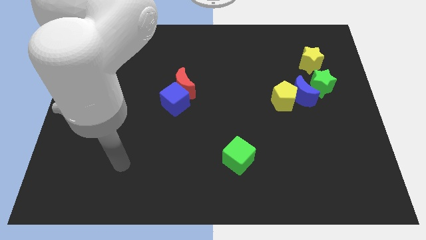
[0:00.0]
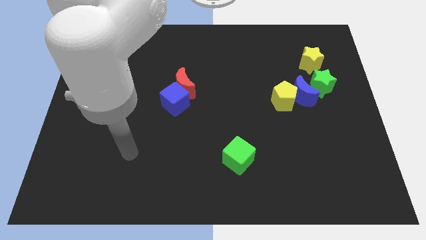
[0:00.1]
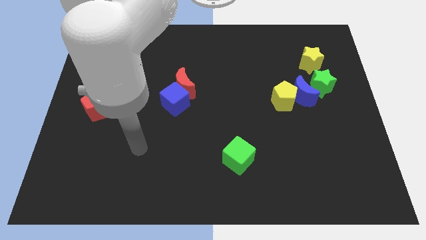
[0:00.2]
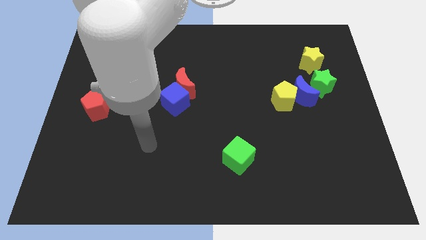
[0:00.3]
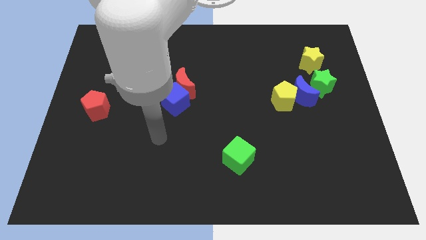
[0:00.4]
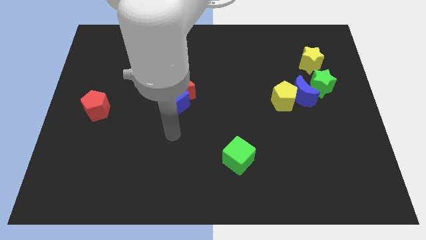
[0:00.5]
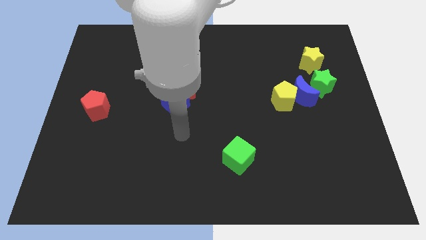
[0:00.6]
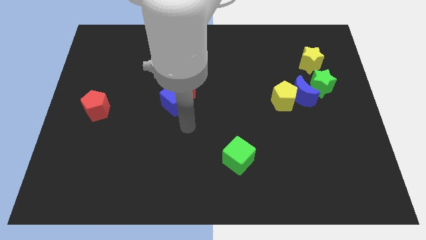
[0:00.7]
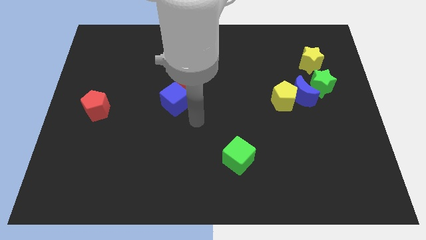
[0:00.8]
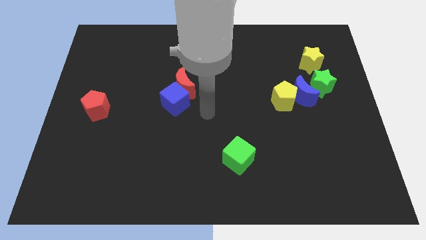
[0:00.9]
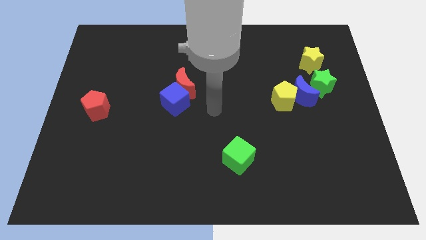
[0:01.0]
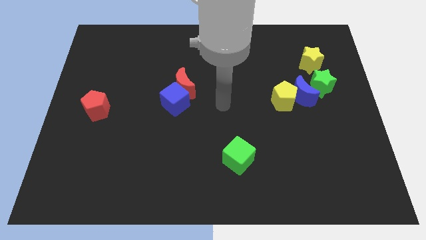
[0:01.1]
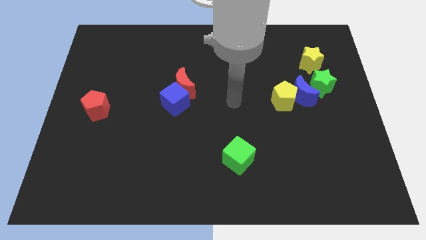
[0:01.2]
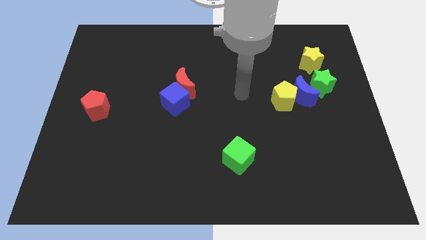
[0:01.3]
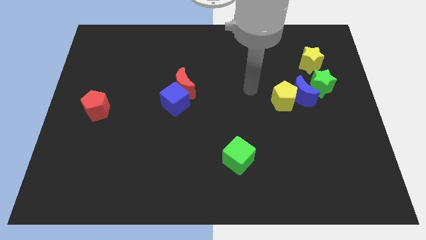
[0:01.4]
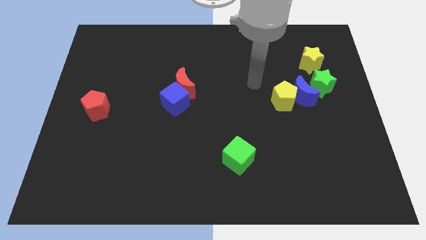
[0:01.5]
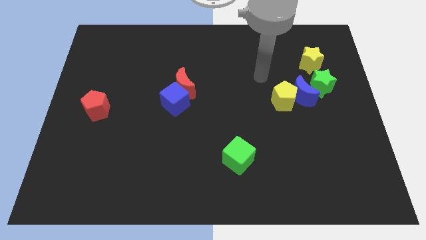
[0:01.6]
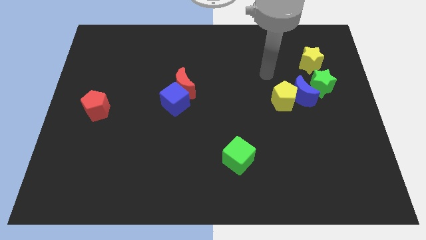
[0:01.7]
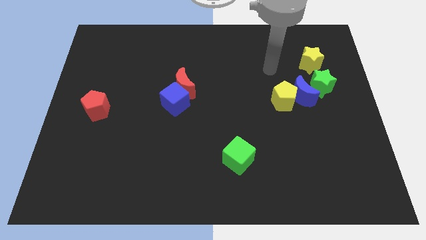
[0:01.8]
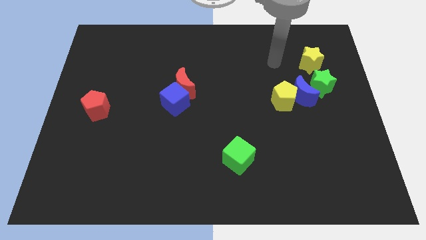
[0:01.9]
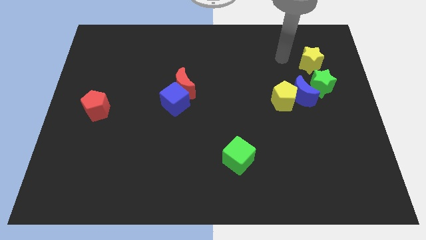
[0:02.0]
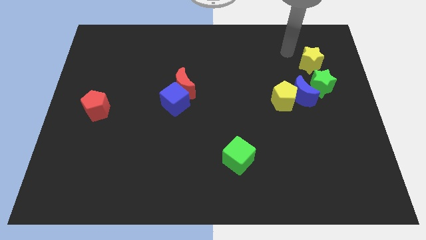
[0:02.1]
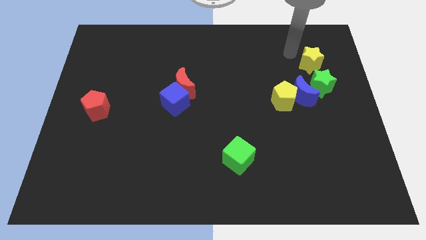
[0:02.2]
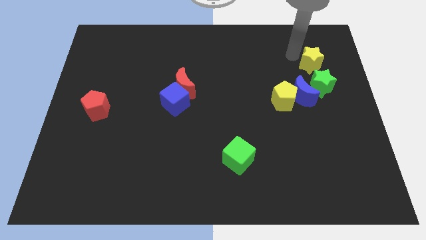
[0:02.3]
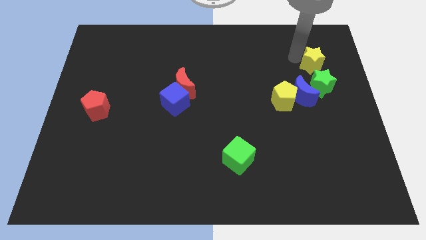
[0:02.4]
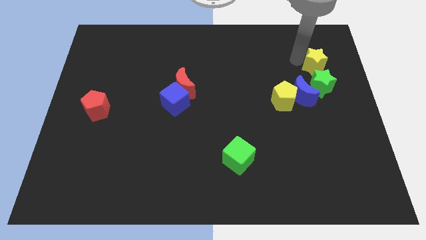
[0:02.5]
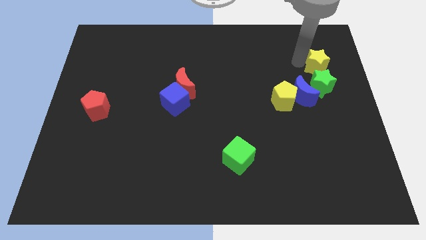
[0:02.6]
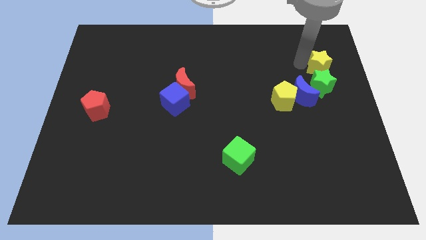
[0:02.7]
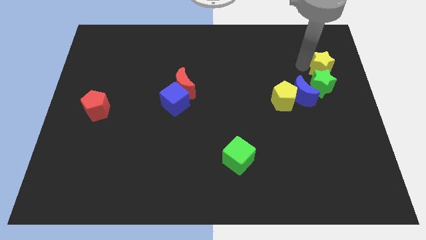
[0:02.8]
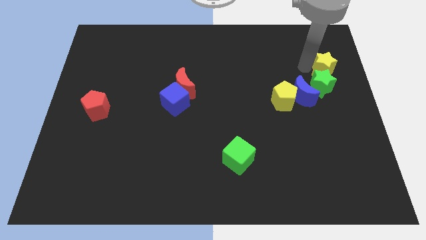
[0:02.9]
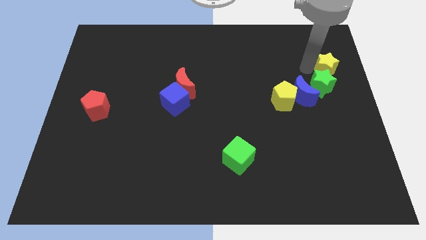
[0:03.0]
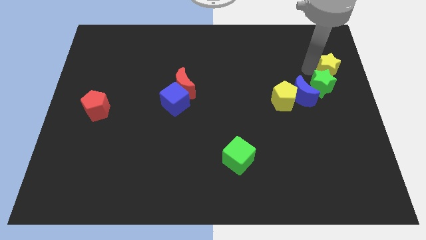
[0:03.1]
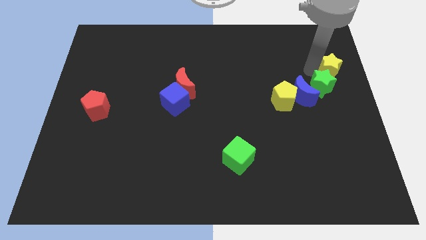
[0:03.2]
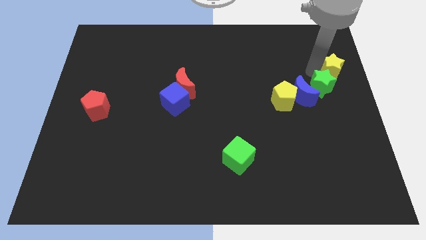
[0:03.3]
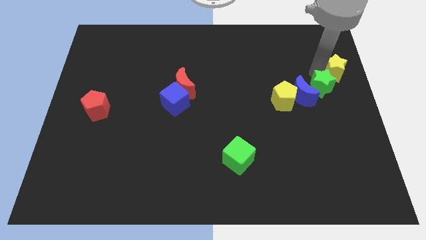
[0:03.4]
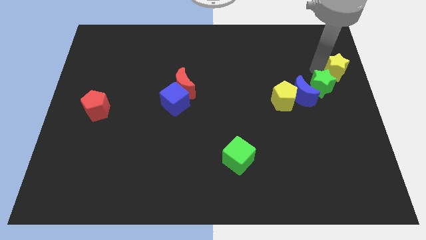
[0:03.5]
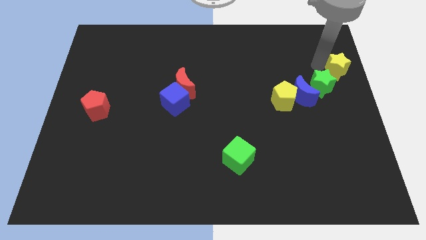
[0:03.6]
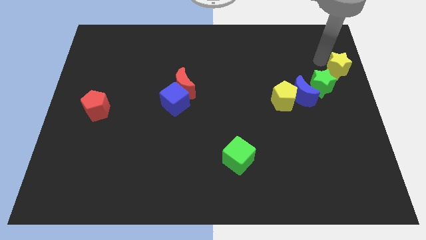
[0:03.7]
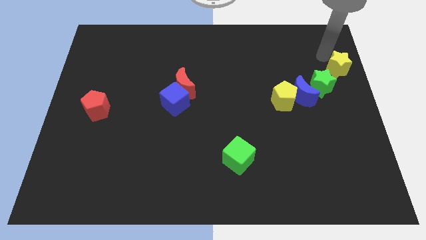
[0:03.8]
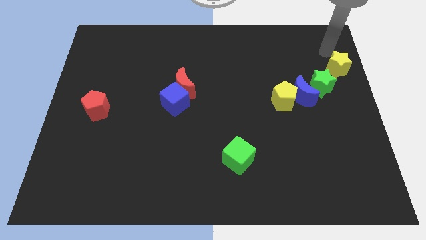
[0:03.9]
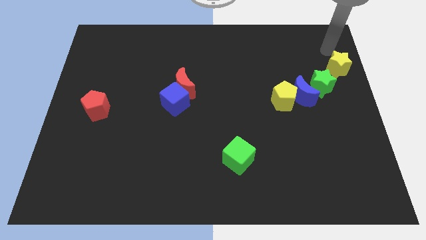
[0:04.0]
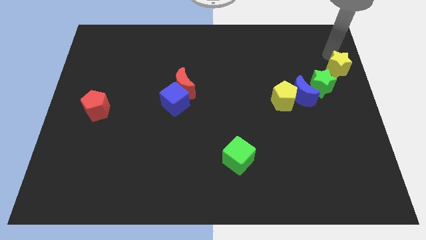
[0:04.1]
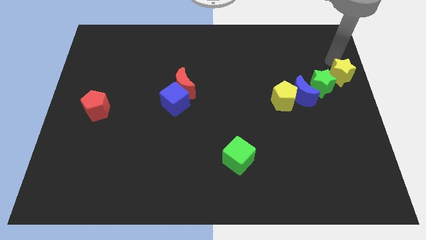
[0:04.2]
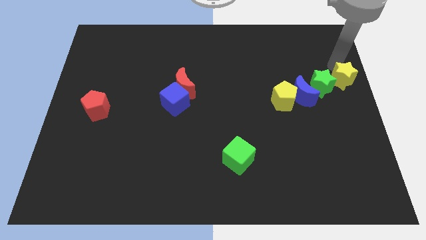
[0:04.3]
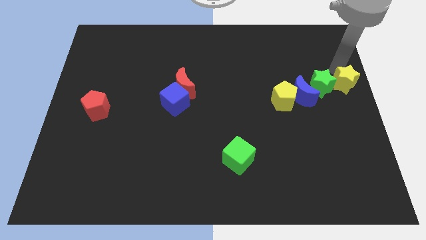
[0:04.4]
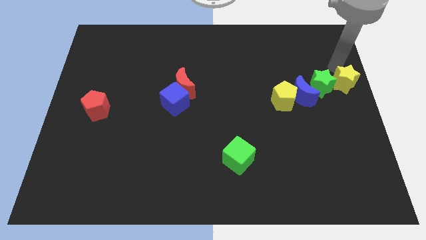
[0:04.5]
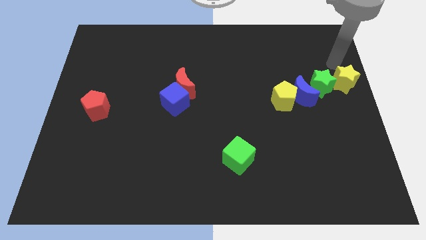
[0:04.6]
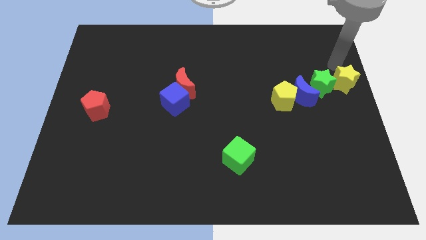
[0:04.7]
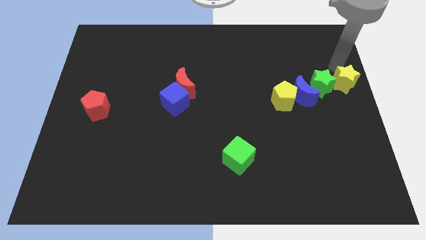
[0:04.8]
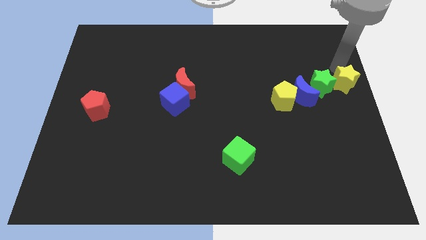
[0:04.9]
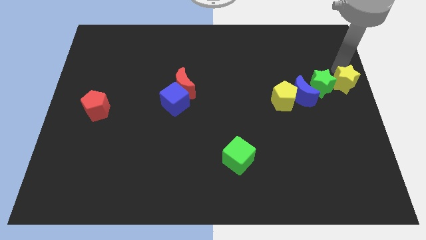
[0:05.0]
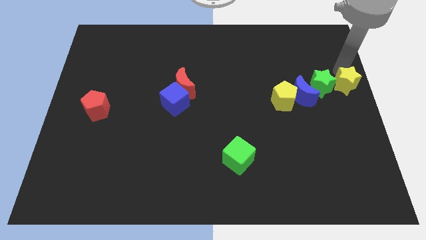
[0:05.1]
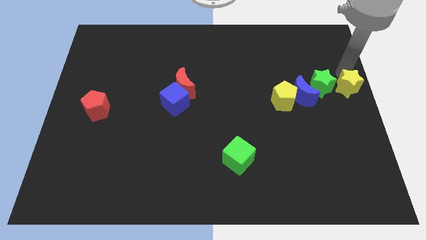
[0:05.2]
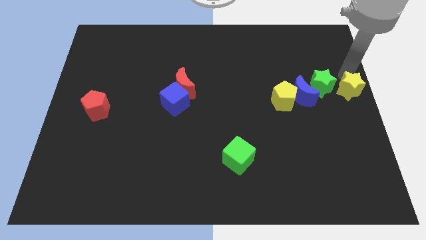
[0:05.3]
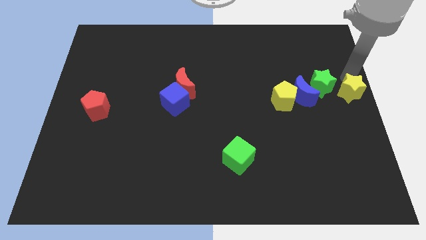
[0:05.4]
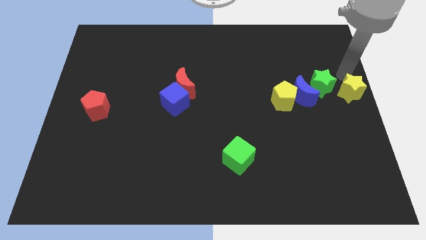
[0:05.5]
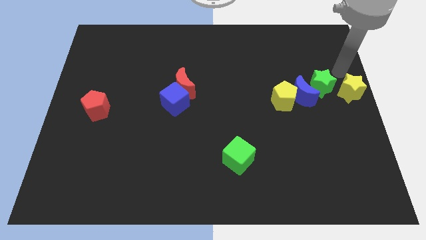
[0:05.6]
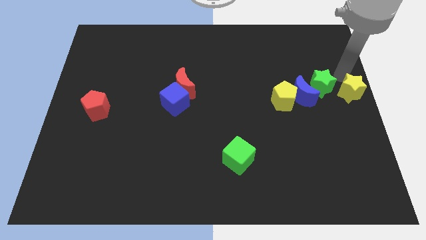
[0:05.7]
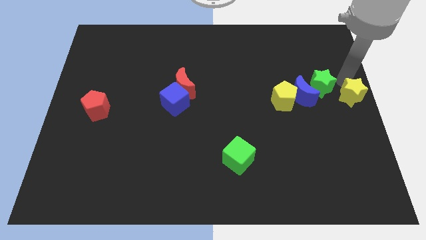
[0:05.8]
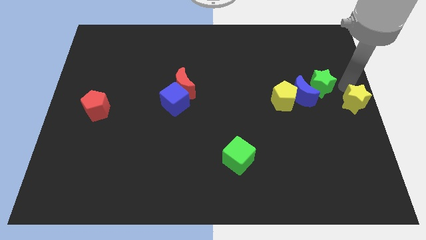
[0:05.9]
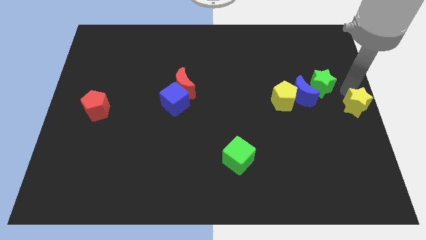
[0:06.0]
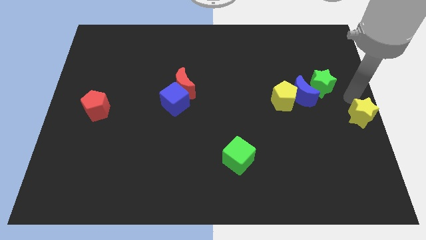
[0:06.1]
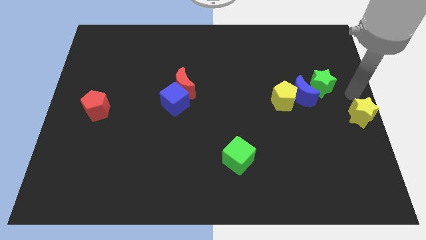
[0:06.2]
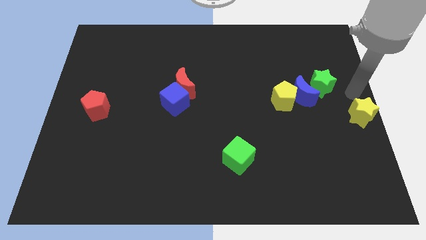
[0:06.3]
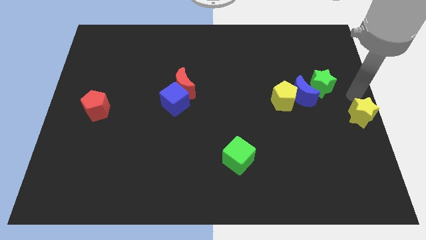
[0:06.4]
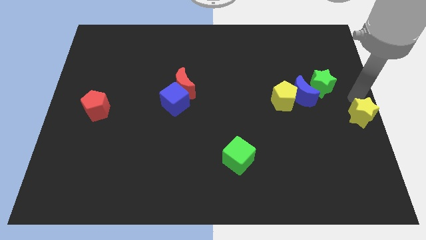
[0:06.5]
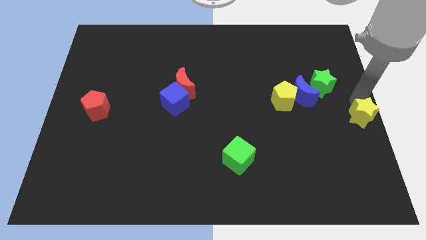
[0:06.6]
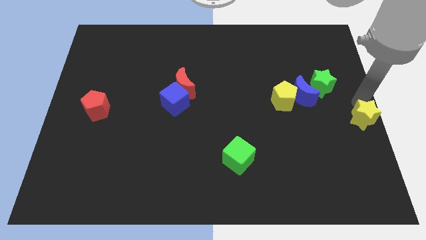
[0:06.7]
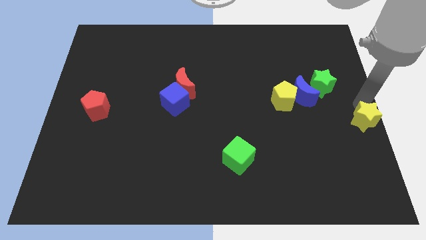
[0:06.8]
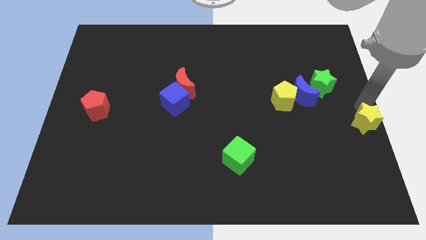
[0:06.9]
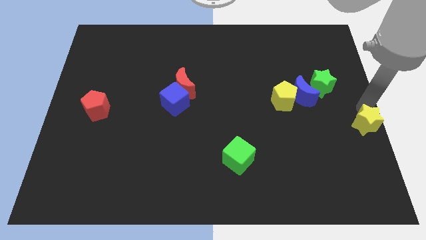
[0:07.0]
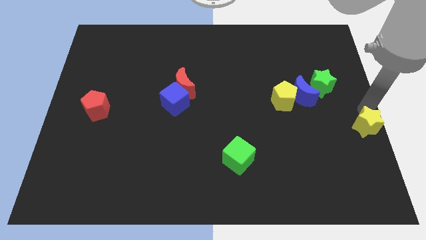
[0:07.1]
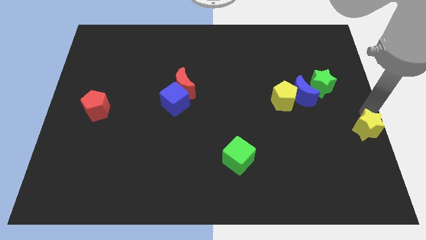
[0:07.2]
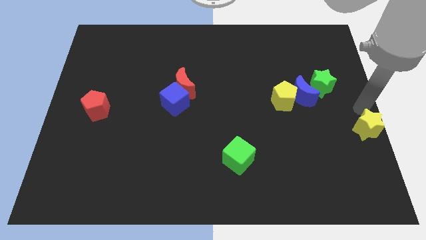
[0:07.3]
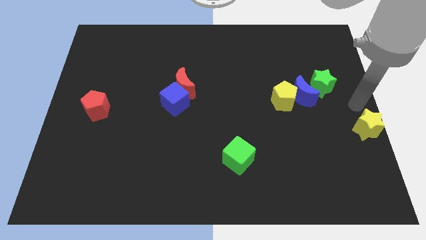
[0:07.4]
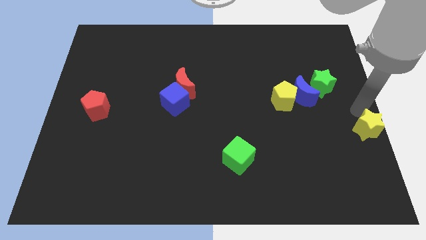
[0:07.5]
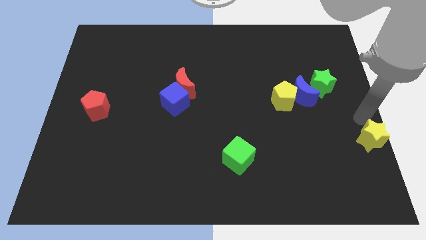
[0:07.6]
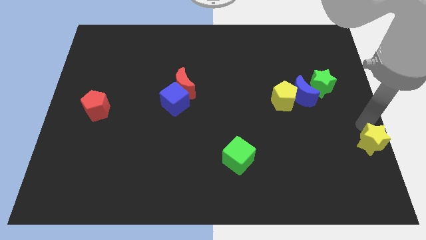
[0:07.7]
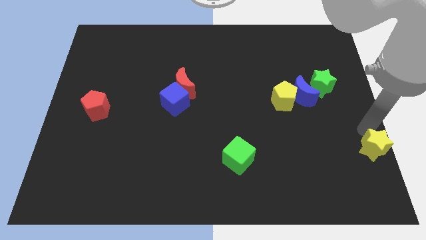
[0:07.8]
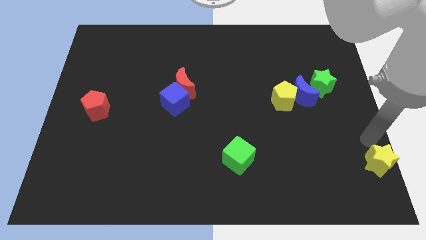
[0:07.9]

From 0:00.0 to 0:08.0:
put the yellow star to the bottom right corner

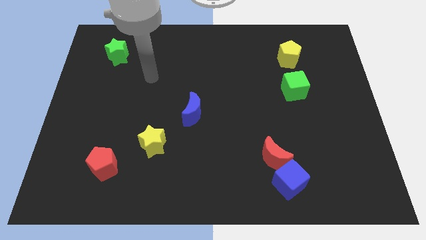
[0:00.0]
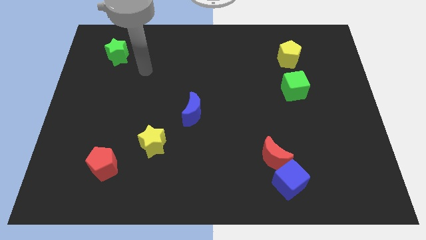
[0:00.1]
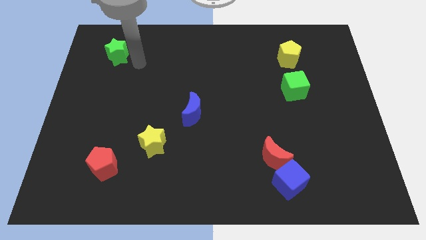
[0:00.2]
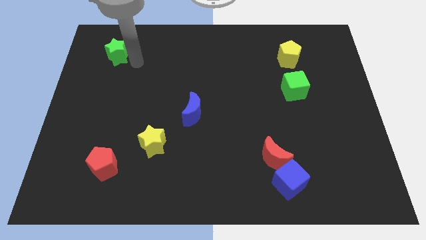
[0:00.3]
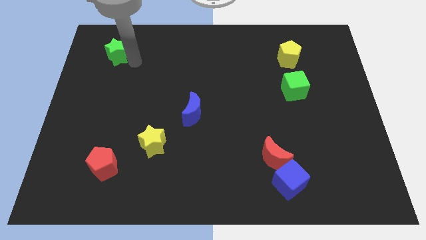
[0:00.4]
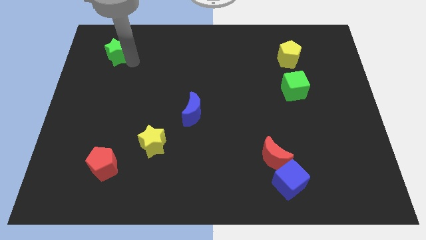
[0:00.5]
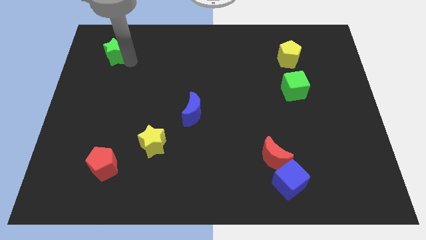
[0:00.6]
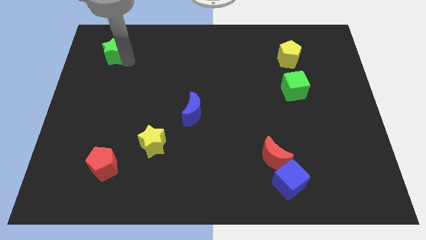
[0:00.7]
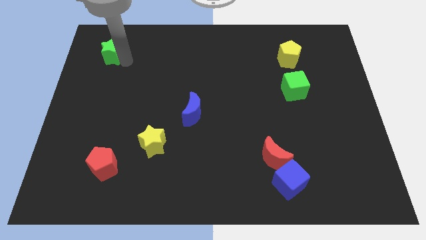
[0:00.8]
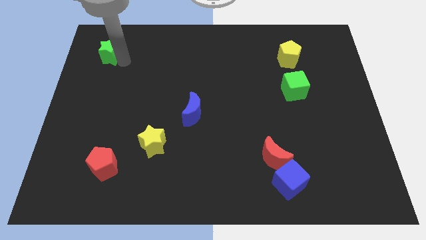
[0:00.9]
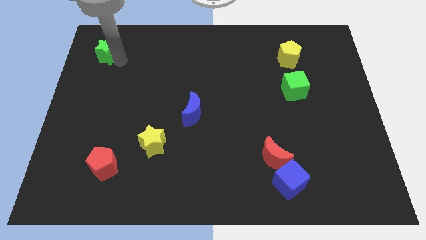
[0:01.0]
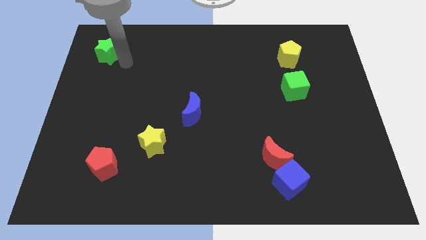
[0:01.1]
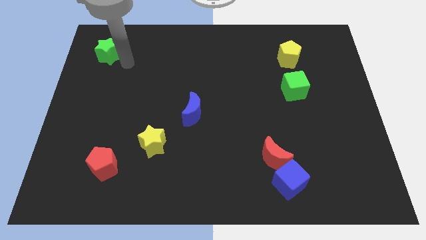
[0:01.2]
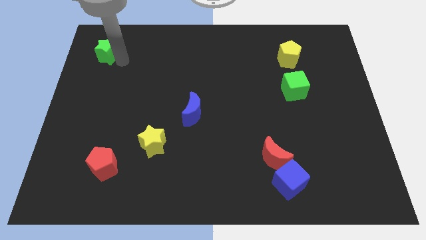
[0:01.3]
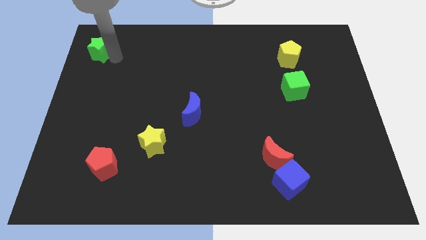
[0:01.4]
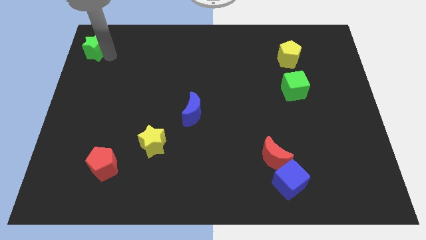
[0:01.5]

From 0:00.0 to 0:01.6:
push the green star to the top left of the board
